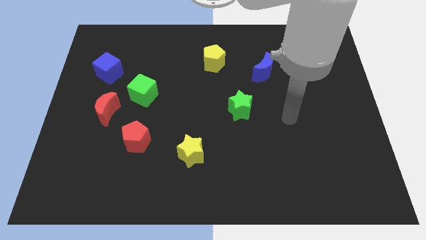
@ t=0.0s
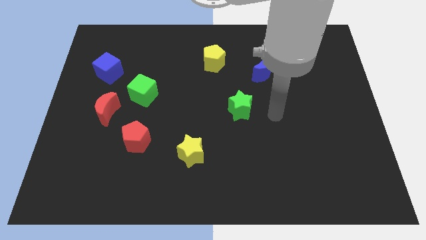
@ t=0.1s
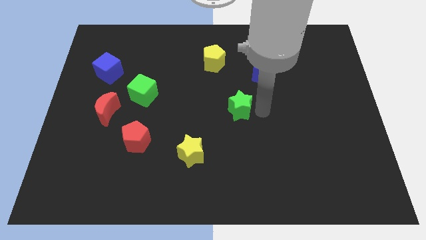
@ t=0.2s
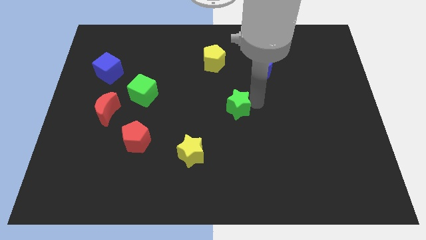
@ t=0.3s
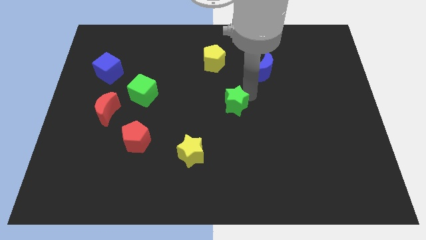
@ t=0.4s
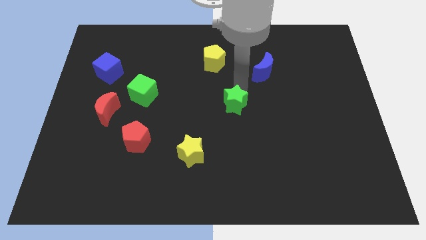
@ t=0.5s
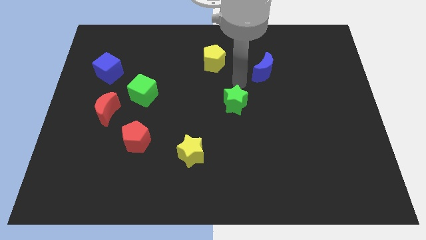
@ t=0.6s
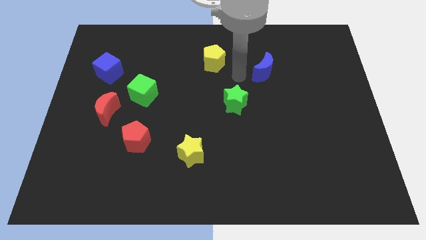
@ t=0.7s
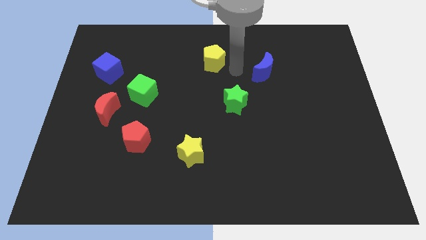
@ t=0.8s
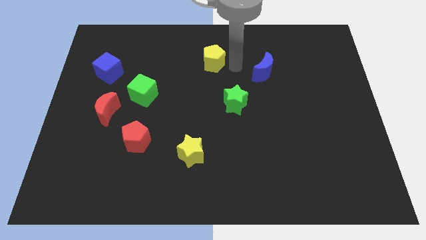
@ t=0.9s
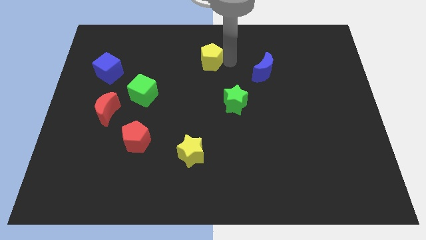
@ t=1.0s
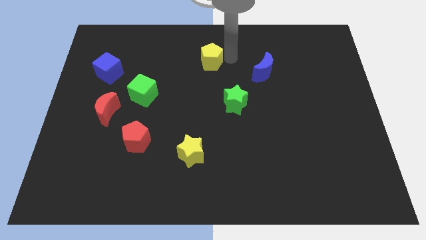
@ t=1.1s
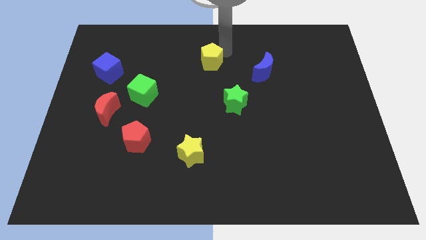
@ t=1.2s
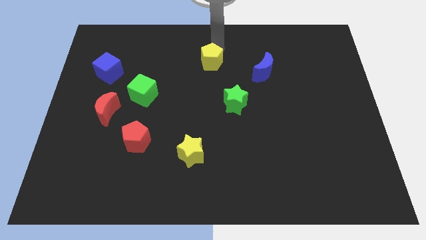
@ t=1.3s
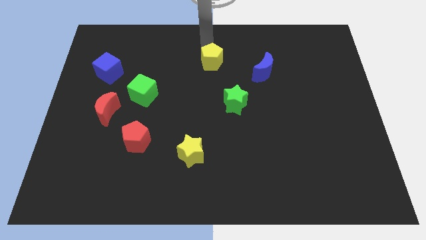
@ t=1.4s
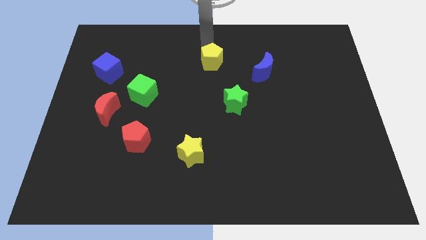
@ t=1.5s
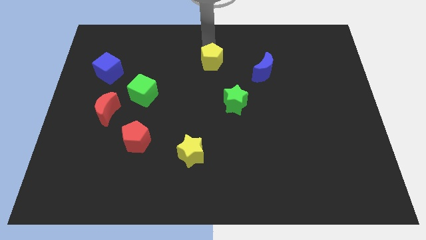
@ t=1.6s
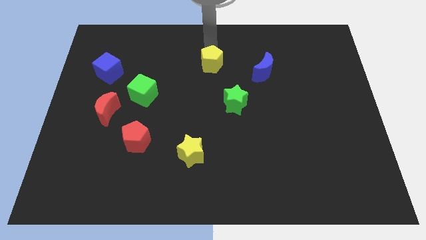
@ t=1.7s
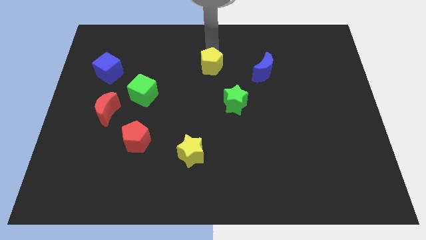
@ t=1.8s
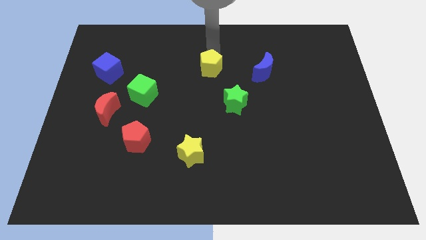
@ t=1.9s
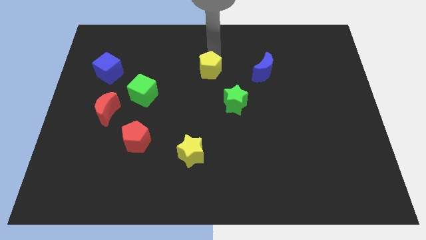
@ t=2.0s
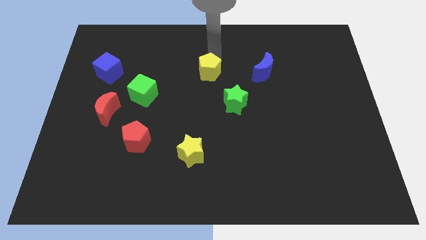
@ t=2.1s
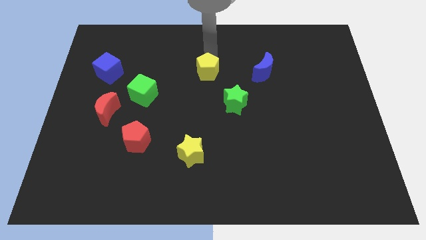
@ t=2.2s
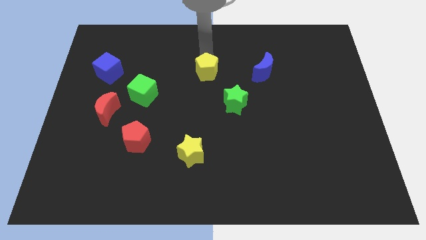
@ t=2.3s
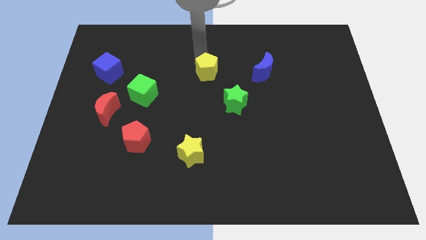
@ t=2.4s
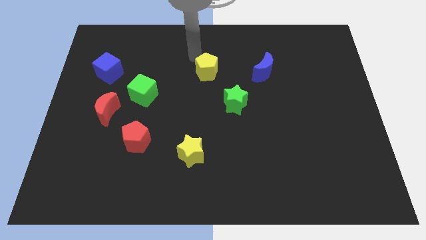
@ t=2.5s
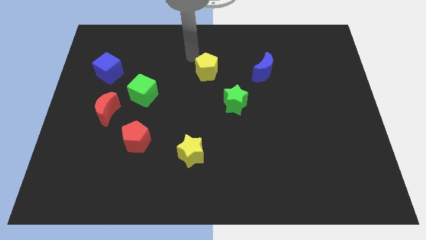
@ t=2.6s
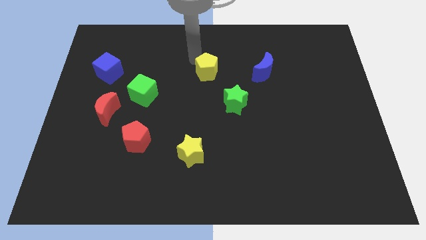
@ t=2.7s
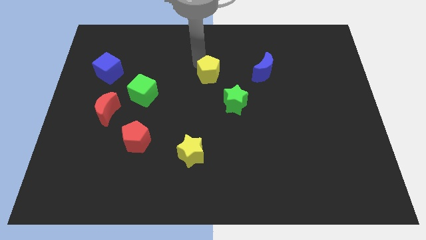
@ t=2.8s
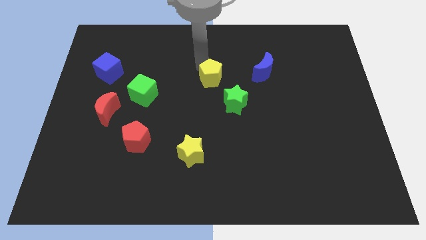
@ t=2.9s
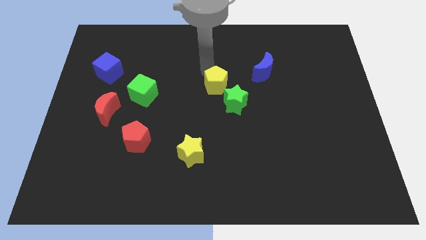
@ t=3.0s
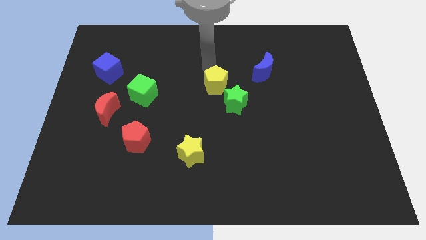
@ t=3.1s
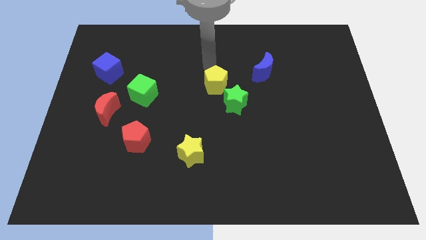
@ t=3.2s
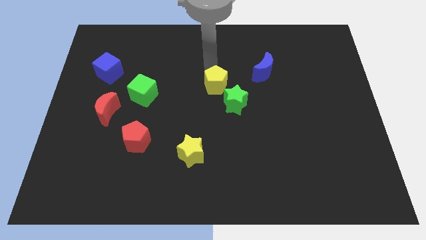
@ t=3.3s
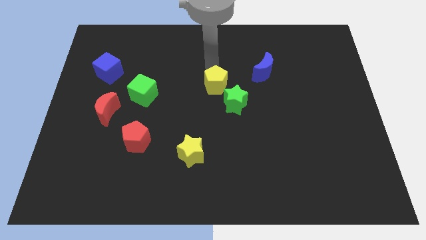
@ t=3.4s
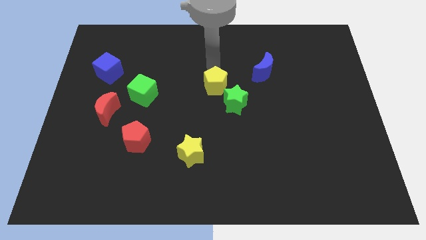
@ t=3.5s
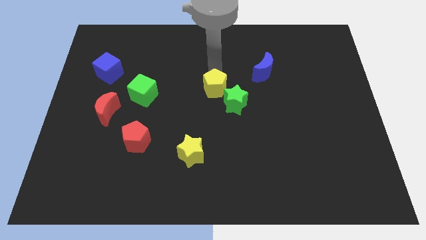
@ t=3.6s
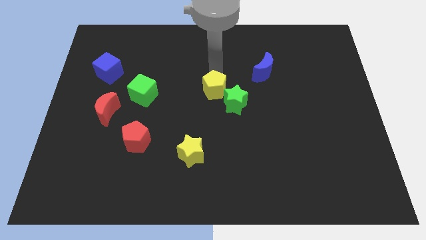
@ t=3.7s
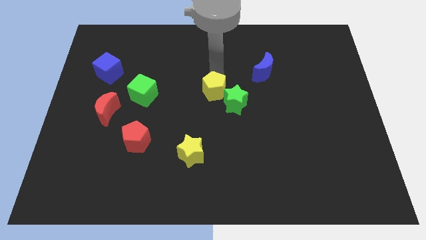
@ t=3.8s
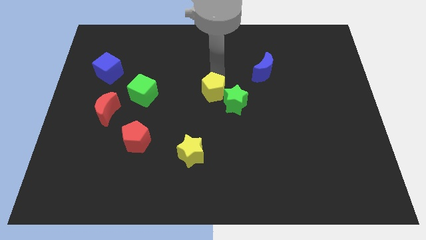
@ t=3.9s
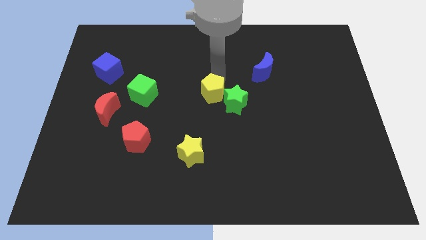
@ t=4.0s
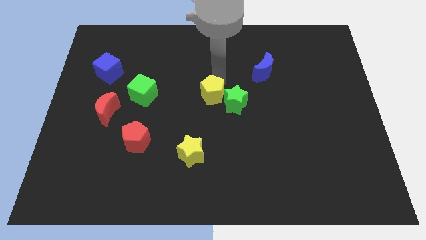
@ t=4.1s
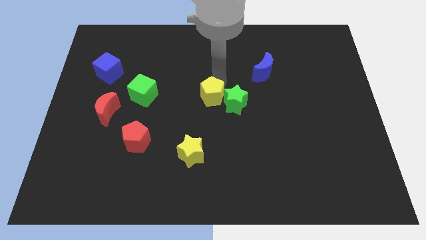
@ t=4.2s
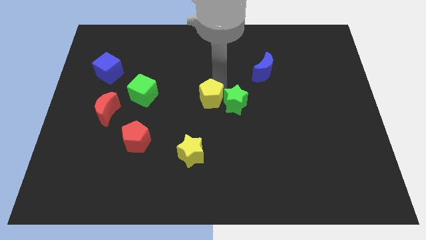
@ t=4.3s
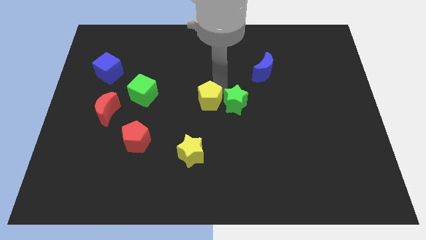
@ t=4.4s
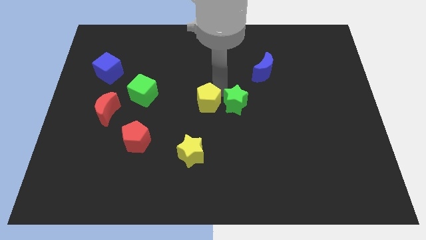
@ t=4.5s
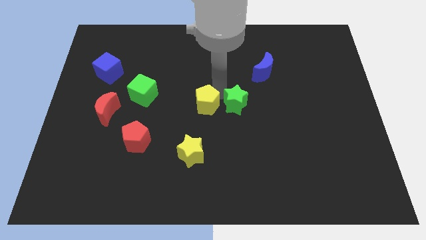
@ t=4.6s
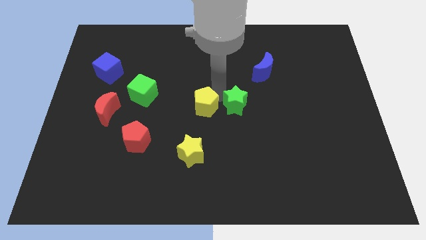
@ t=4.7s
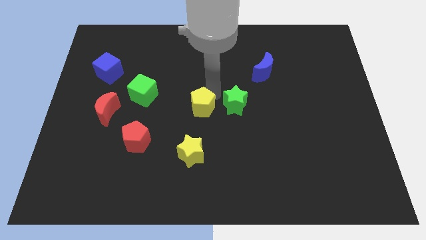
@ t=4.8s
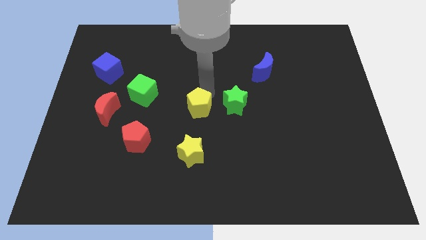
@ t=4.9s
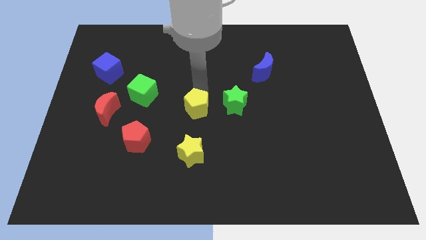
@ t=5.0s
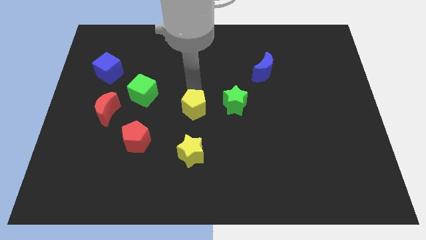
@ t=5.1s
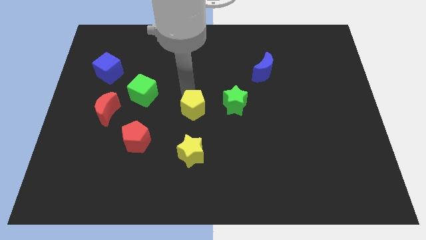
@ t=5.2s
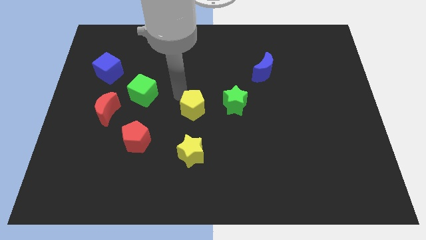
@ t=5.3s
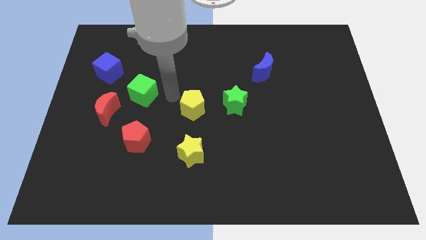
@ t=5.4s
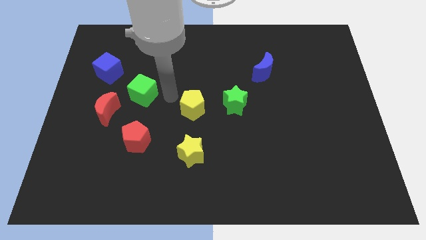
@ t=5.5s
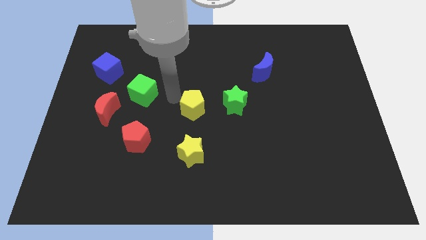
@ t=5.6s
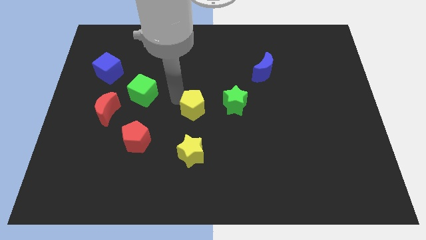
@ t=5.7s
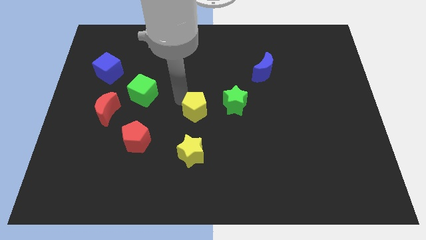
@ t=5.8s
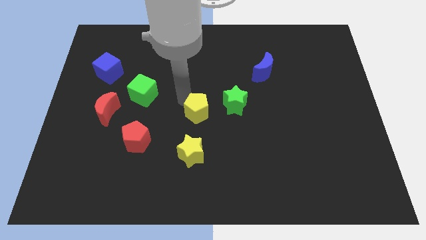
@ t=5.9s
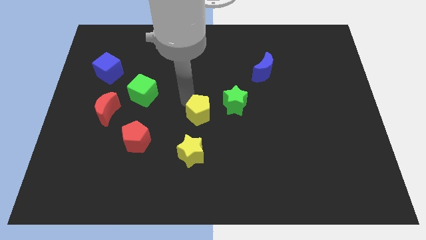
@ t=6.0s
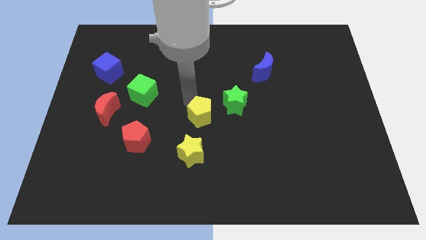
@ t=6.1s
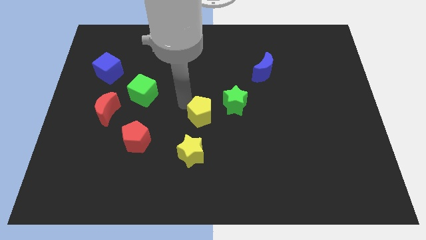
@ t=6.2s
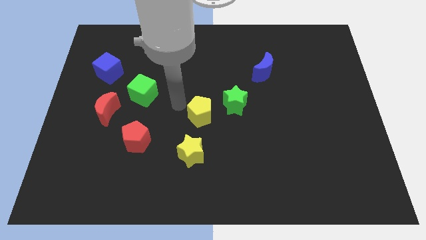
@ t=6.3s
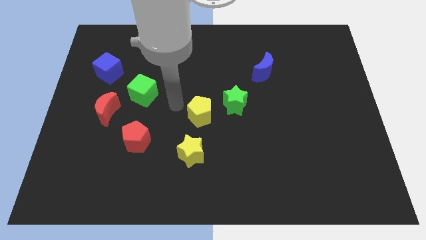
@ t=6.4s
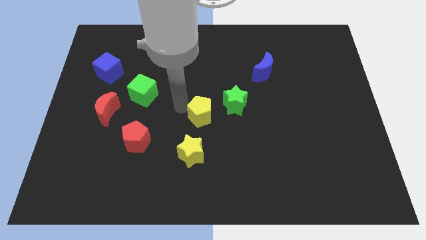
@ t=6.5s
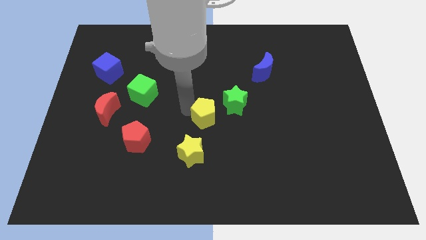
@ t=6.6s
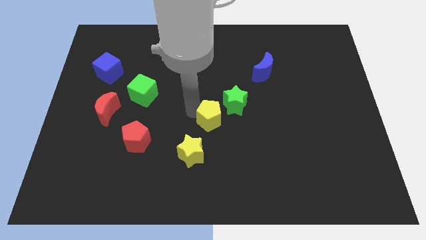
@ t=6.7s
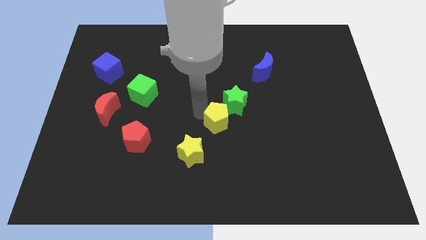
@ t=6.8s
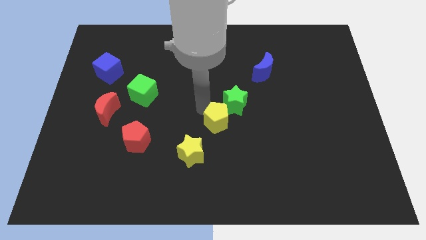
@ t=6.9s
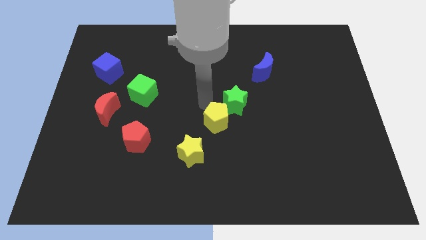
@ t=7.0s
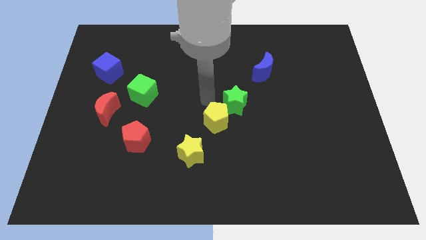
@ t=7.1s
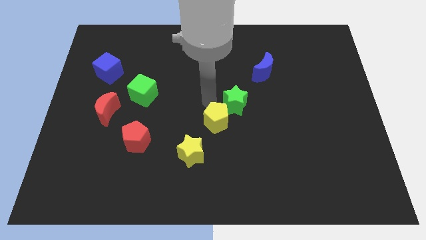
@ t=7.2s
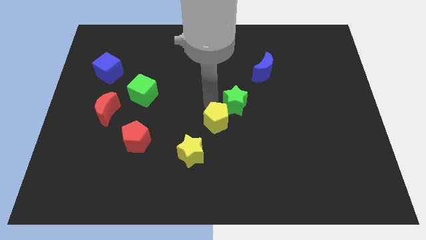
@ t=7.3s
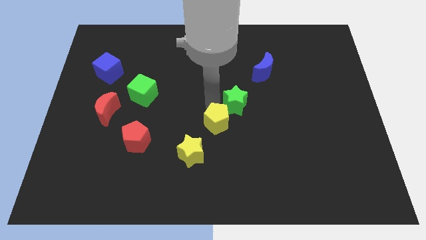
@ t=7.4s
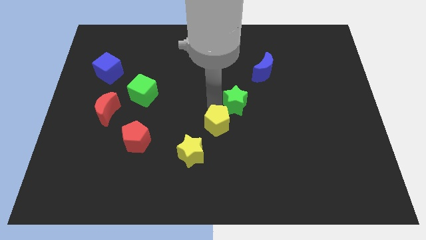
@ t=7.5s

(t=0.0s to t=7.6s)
slide the yellow pentagon down

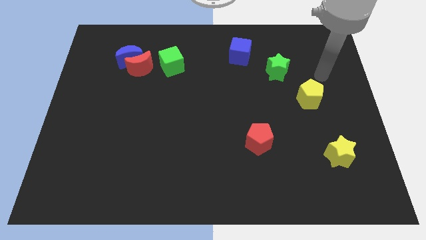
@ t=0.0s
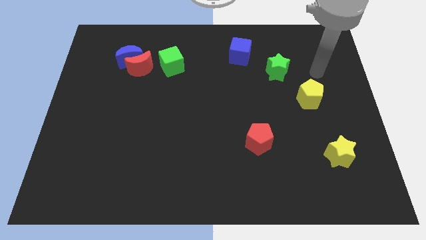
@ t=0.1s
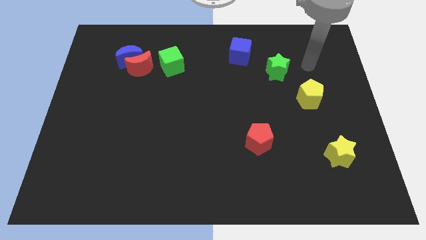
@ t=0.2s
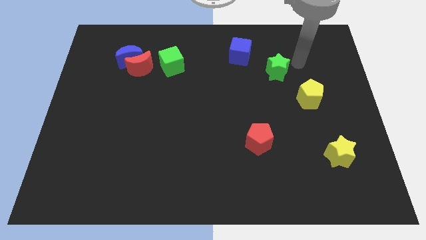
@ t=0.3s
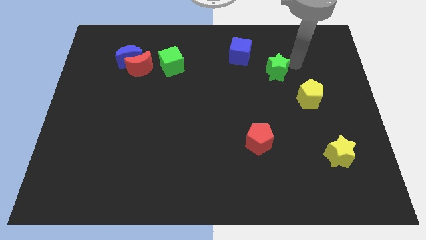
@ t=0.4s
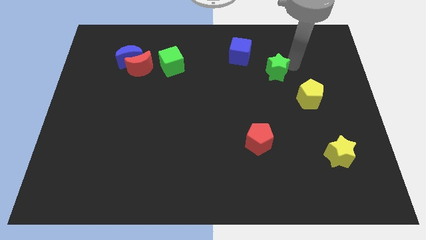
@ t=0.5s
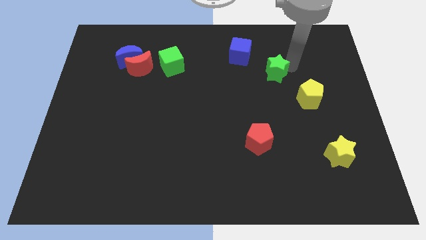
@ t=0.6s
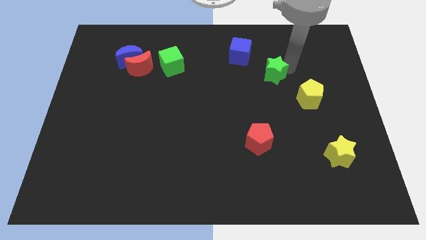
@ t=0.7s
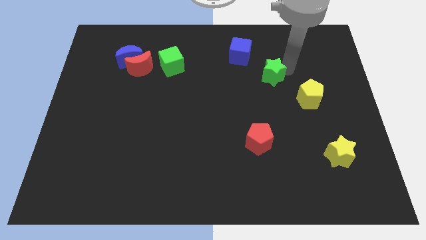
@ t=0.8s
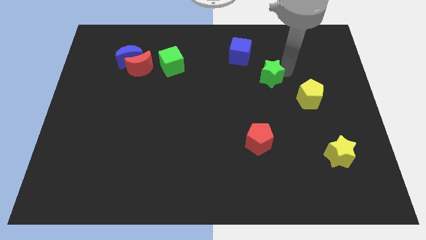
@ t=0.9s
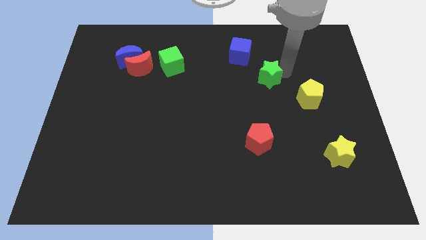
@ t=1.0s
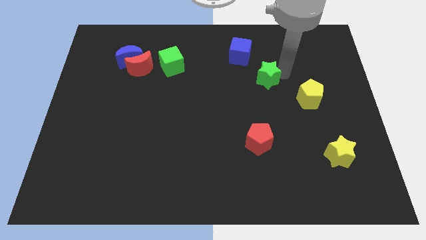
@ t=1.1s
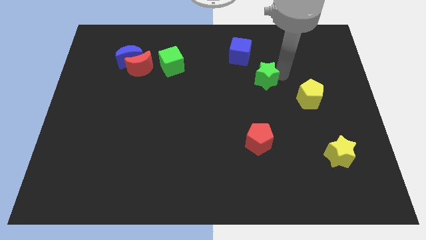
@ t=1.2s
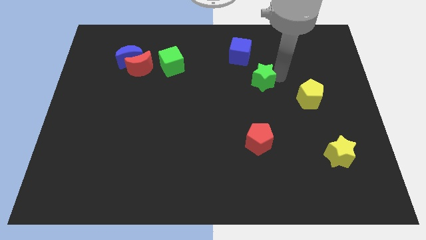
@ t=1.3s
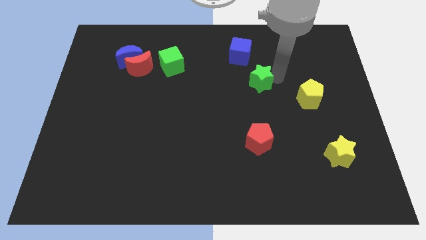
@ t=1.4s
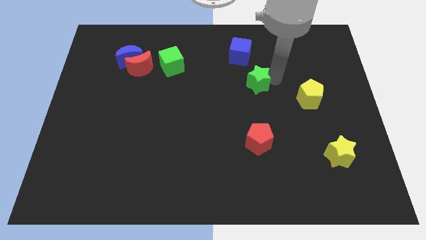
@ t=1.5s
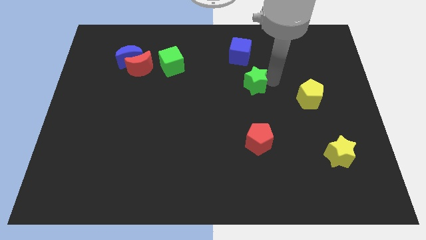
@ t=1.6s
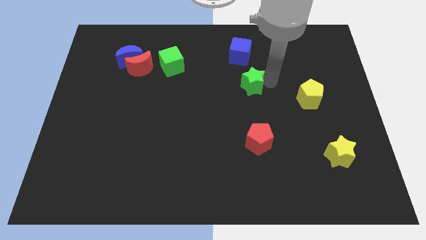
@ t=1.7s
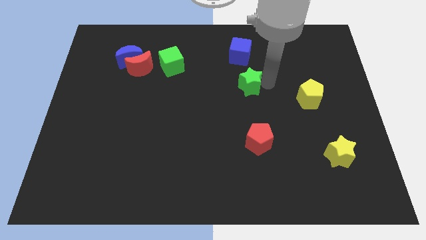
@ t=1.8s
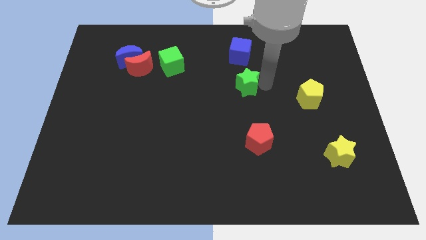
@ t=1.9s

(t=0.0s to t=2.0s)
slightly move the green star left
